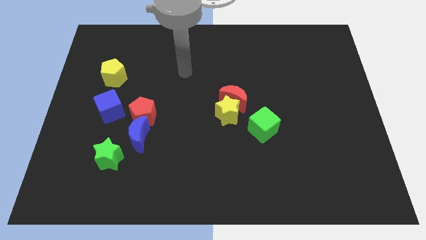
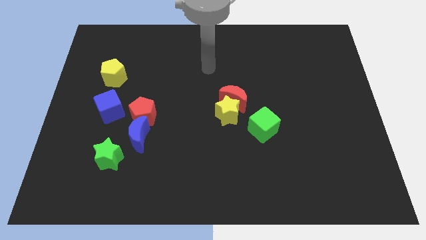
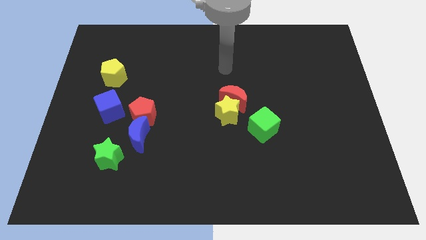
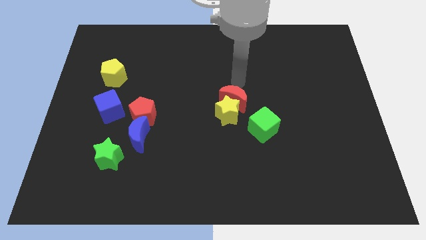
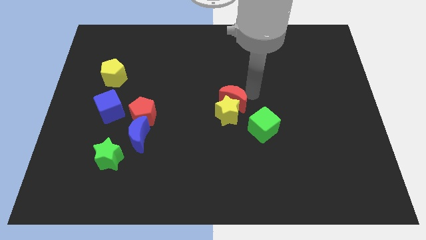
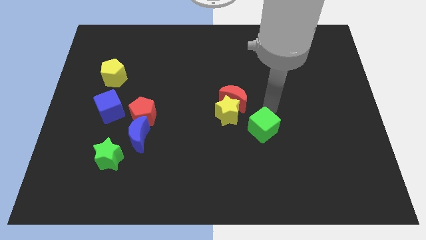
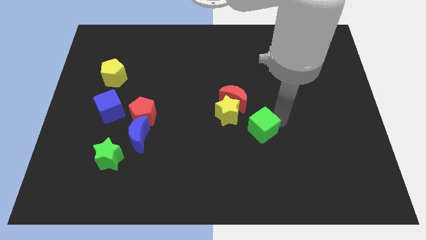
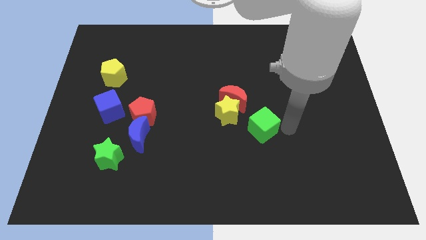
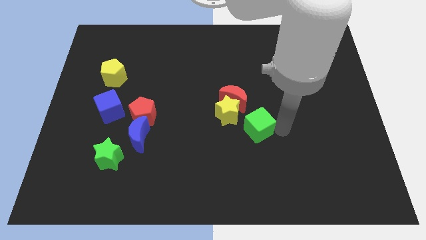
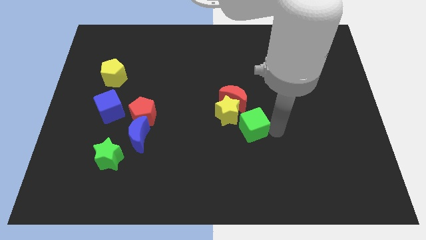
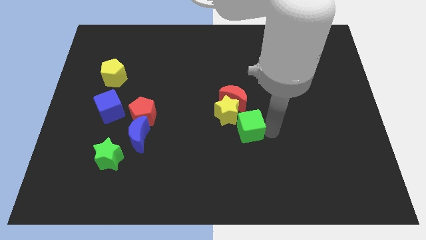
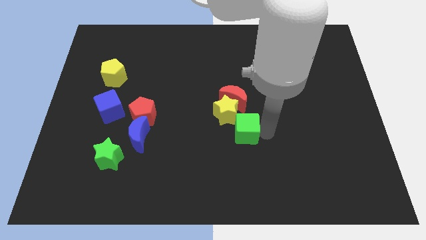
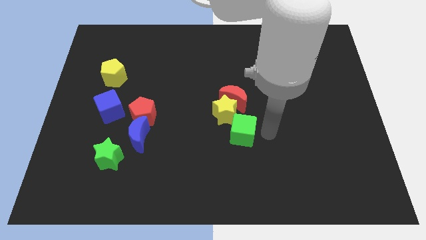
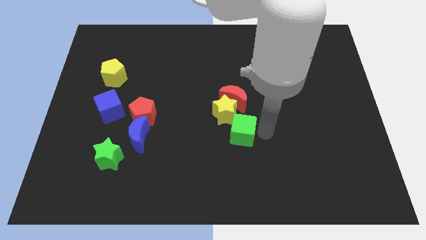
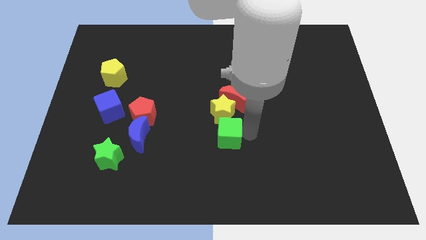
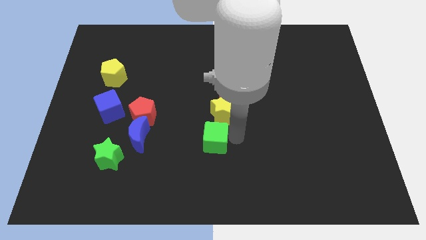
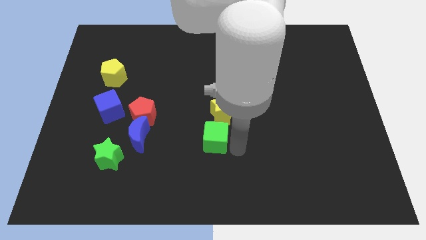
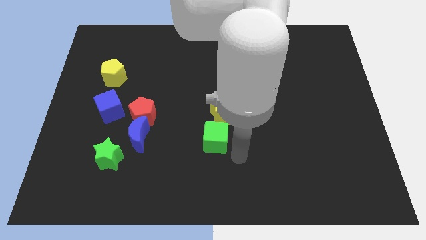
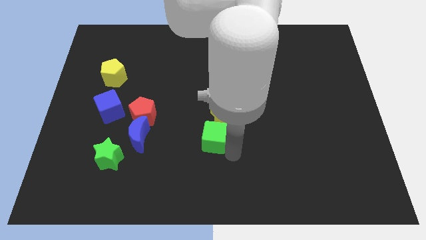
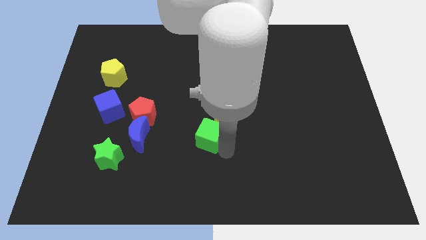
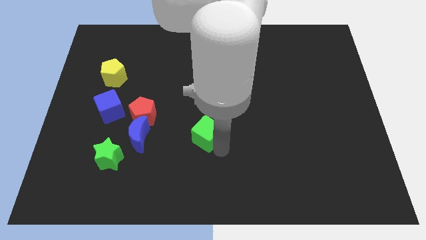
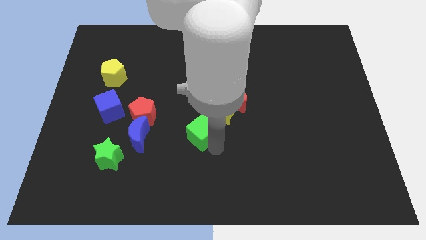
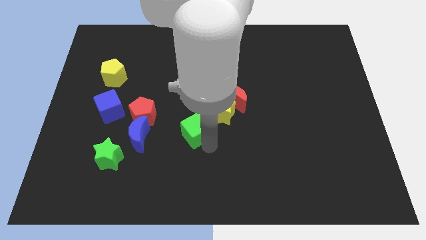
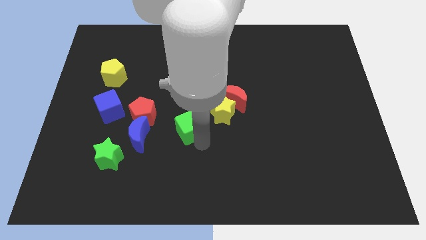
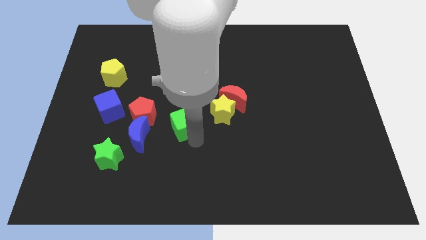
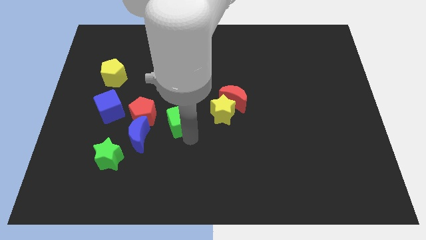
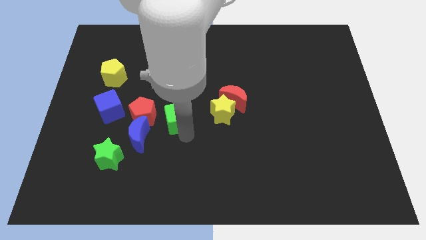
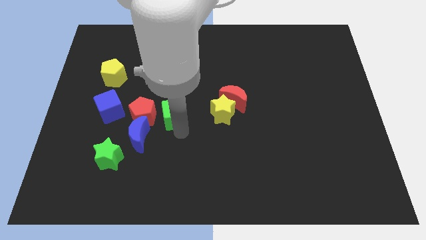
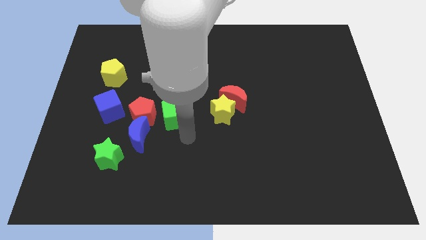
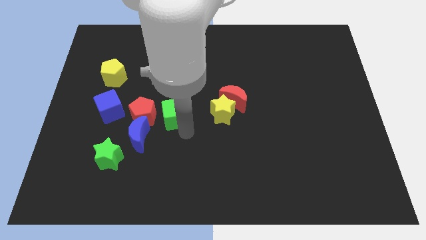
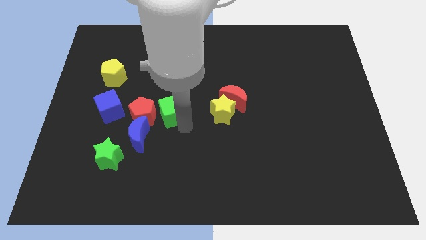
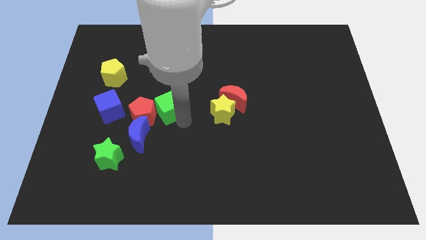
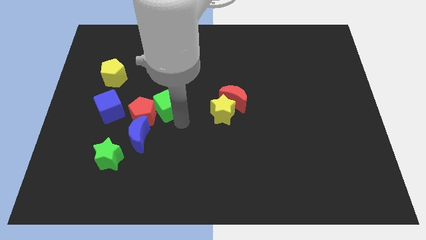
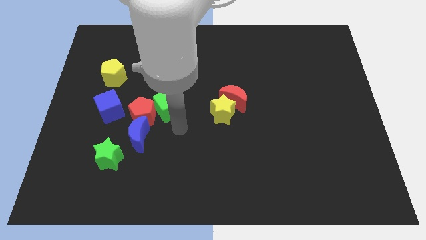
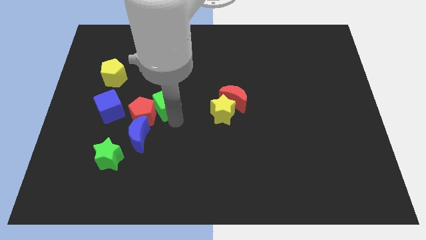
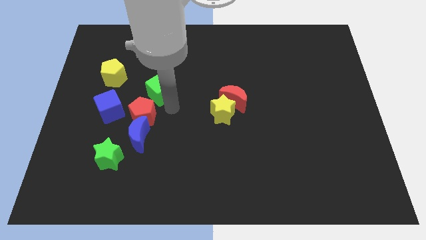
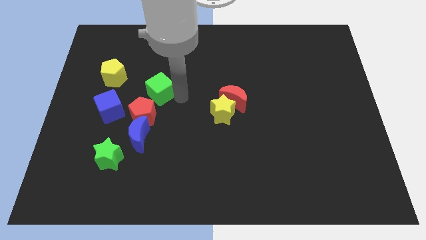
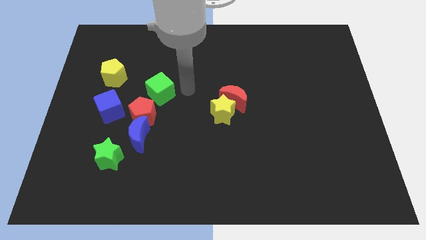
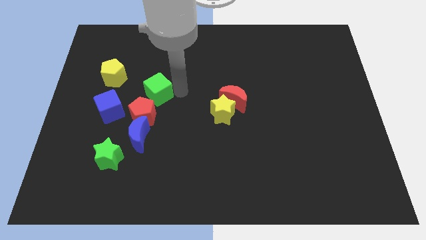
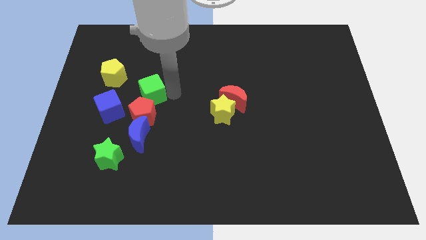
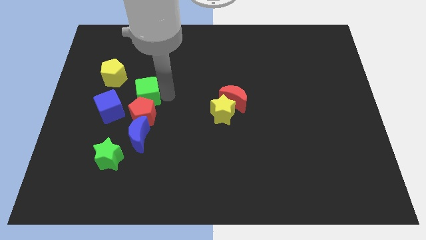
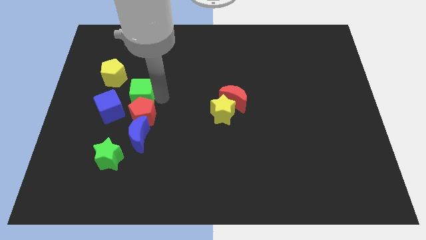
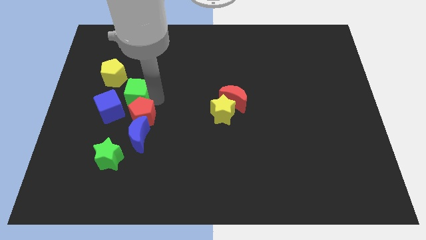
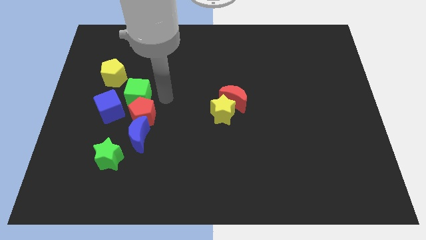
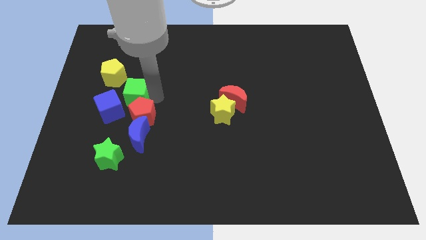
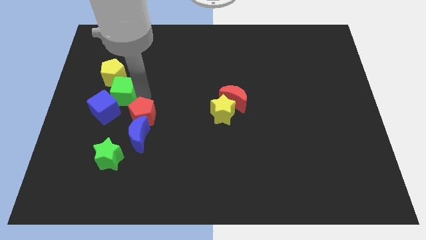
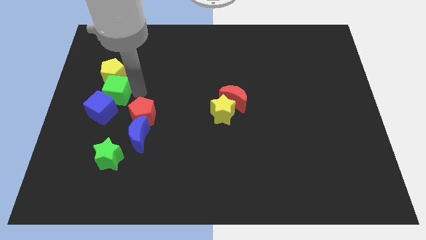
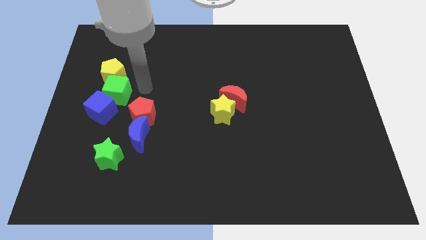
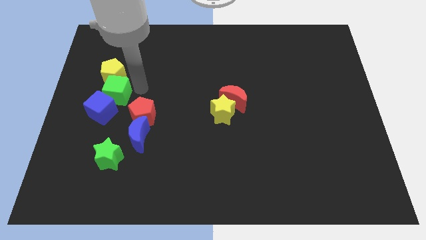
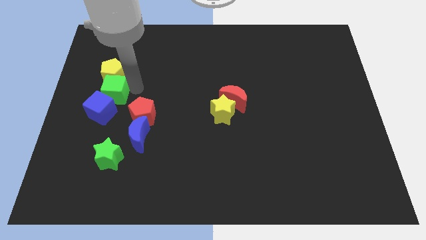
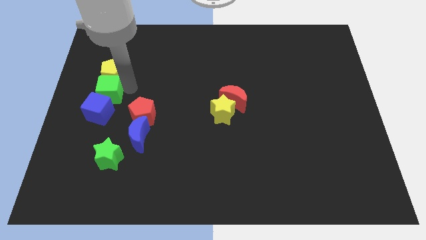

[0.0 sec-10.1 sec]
put the green cube to the left side of the board

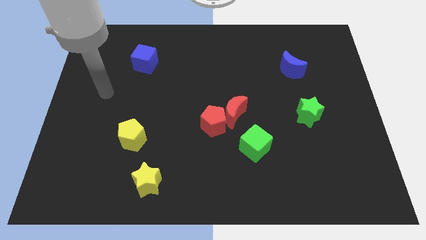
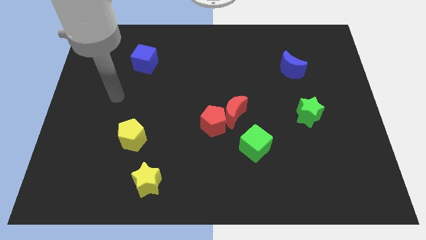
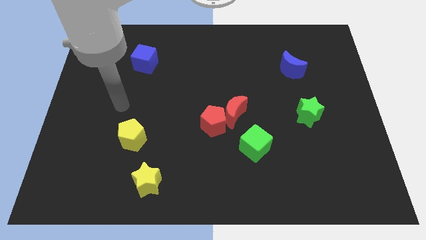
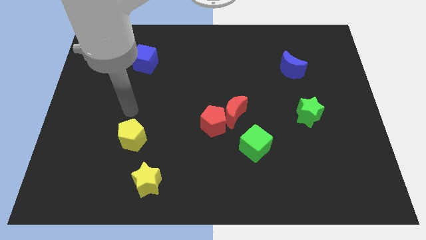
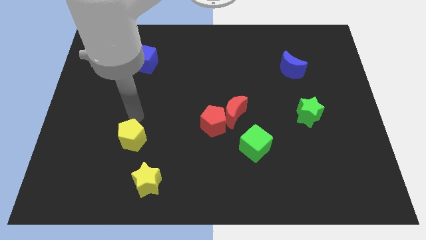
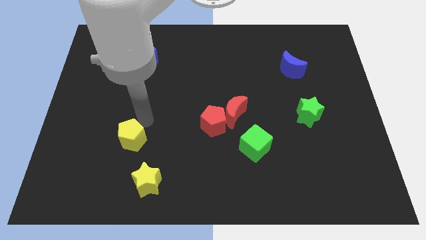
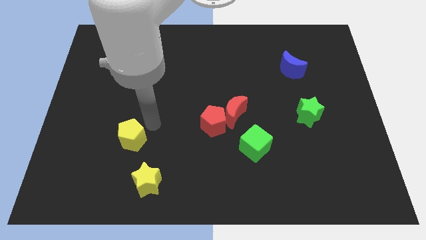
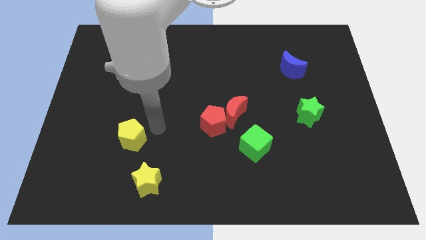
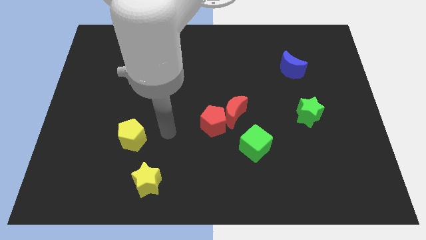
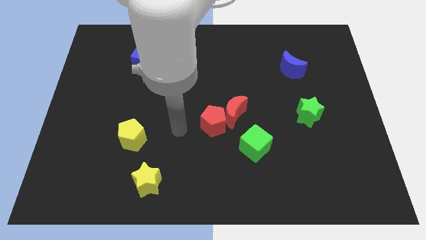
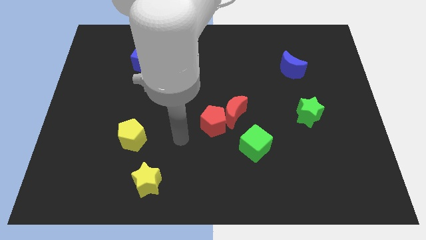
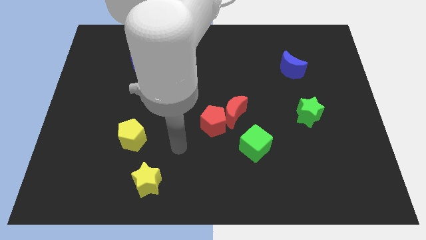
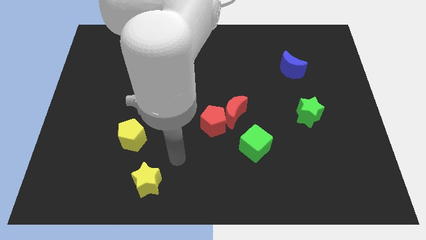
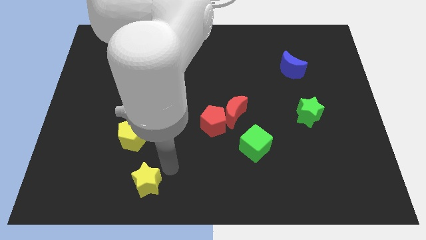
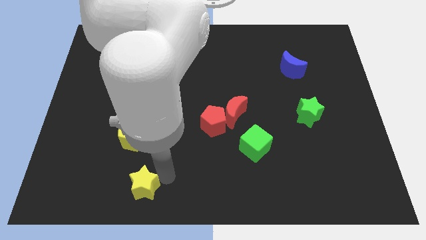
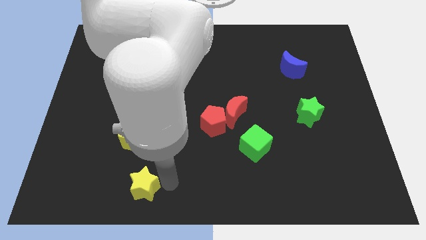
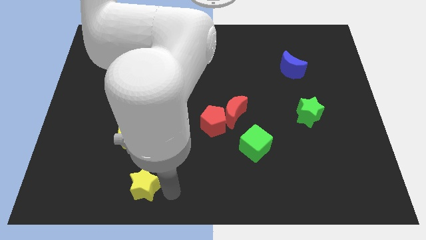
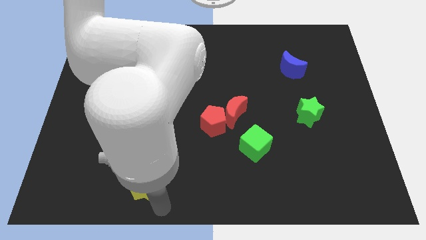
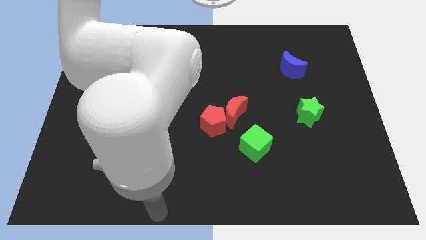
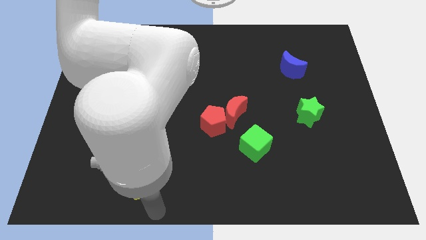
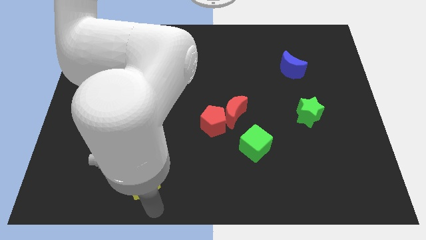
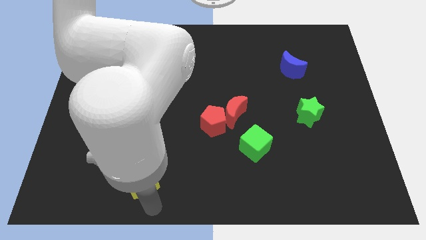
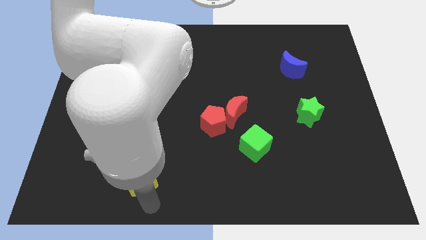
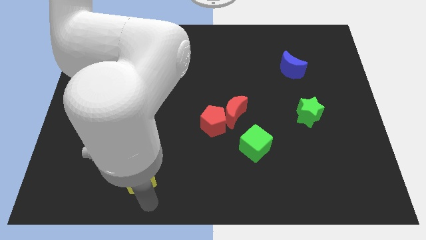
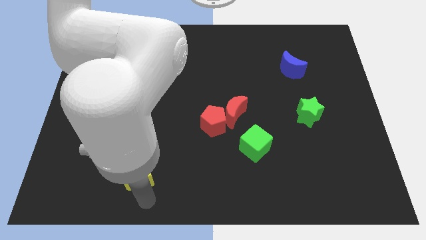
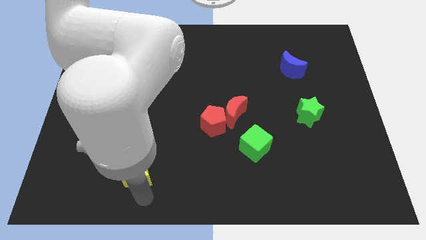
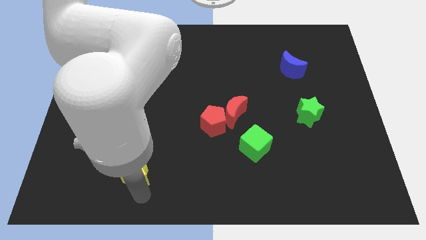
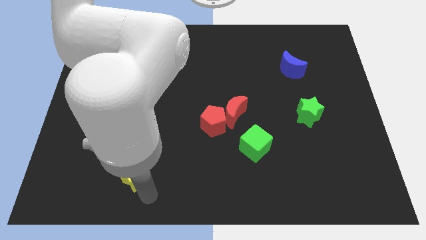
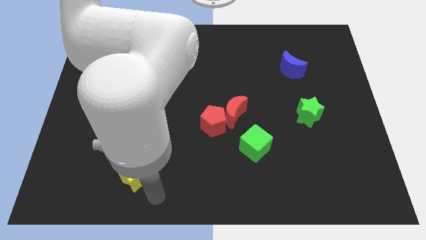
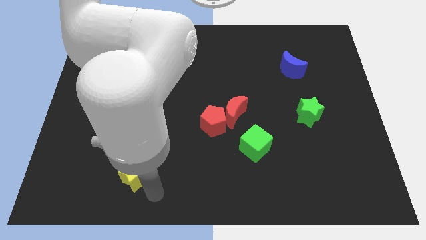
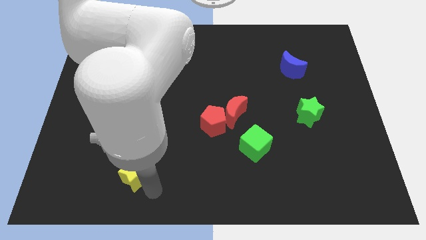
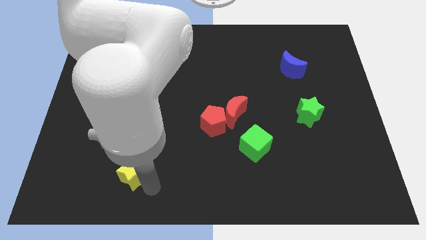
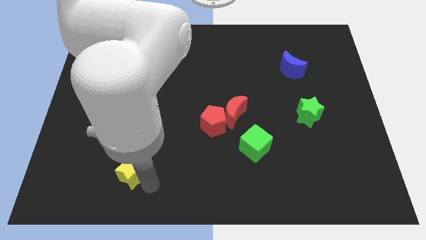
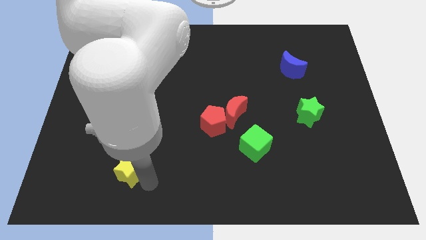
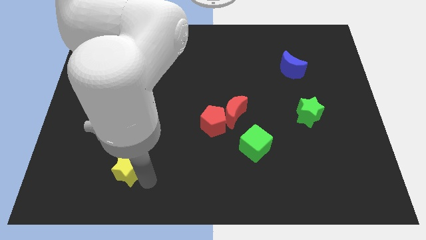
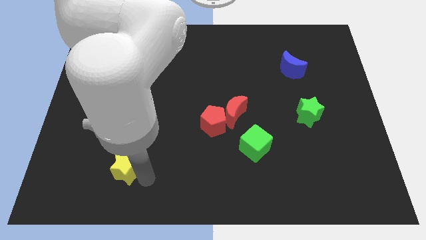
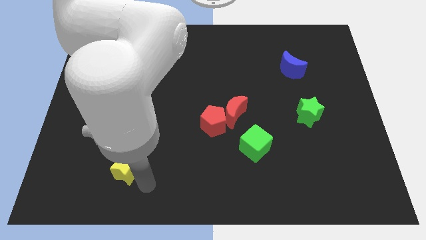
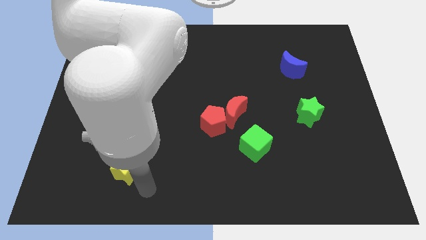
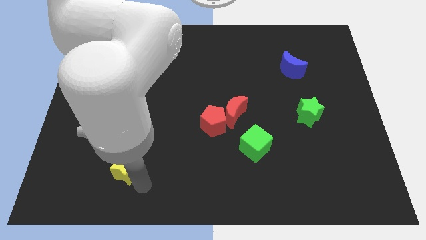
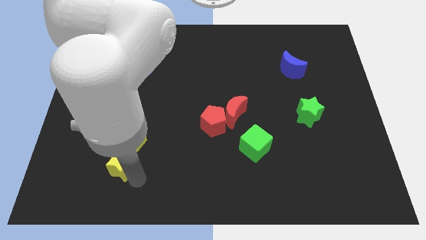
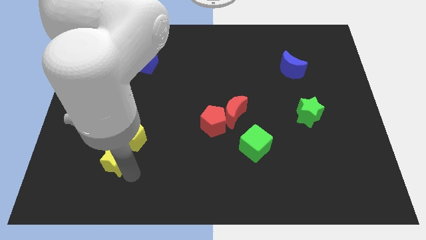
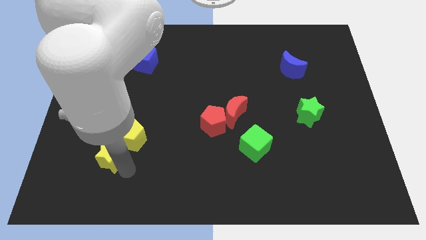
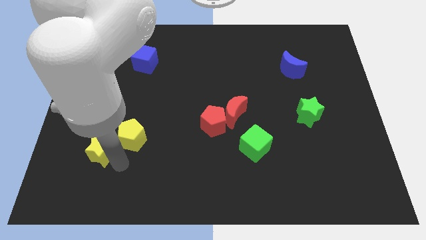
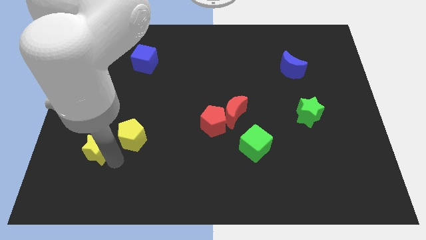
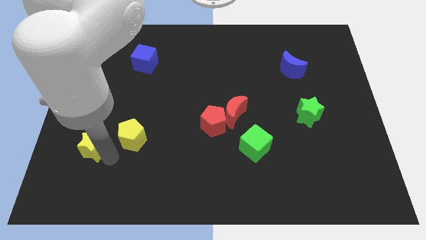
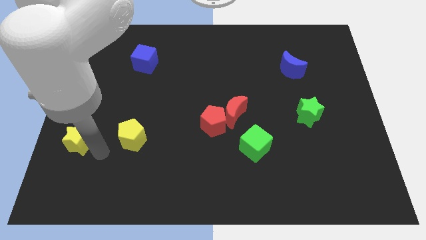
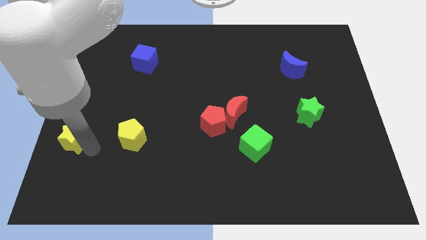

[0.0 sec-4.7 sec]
put the yellow star to the center left
